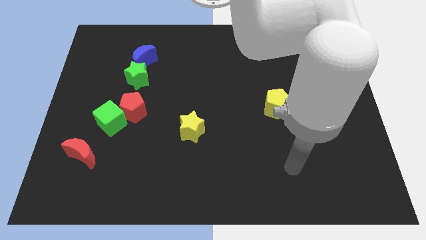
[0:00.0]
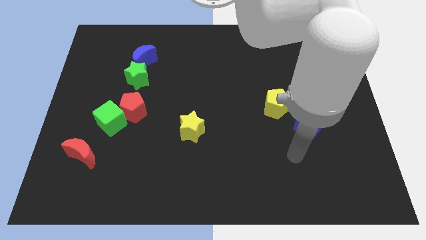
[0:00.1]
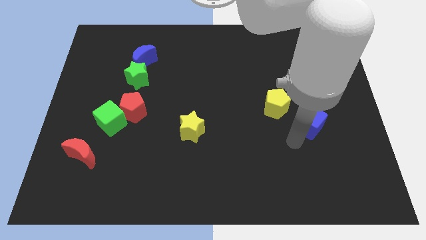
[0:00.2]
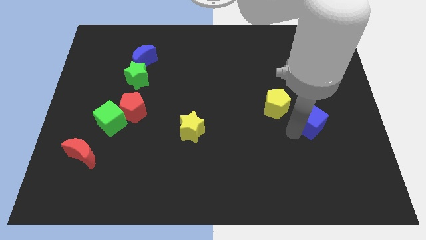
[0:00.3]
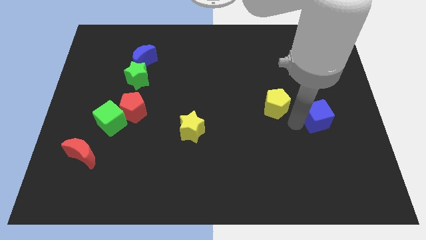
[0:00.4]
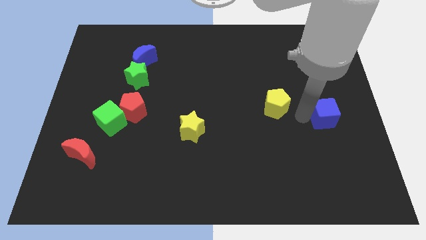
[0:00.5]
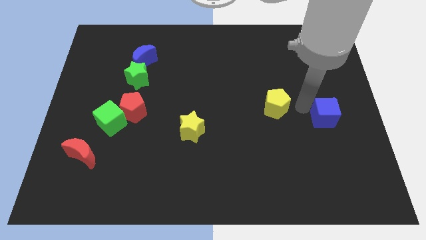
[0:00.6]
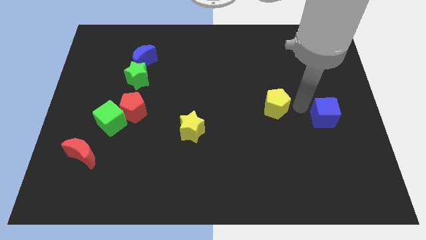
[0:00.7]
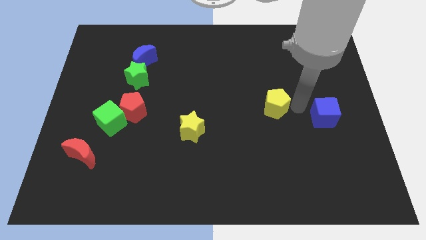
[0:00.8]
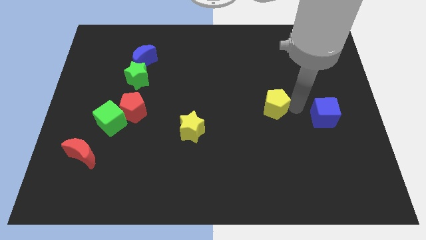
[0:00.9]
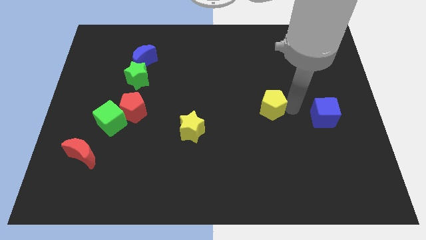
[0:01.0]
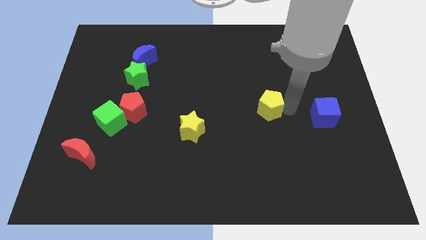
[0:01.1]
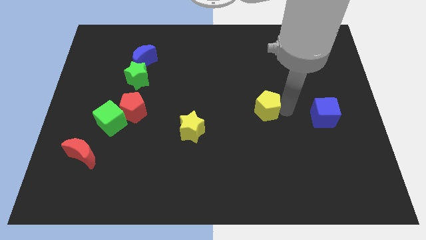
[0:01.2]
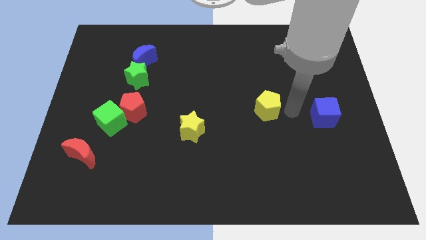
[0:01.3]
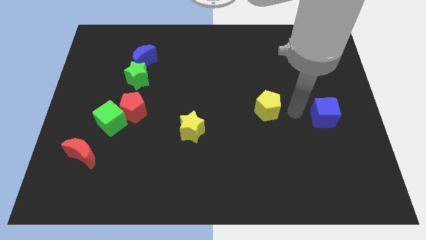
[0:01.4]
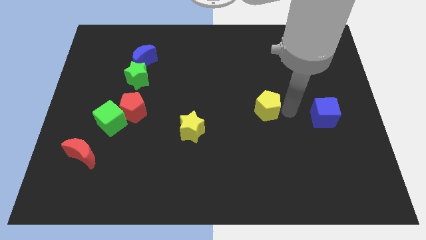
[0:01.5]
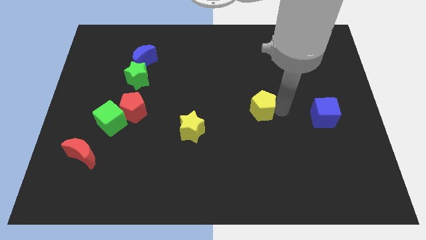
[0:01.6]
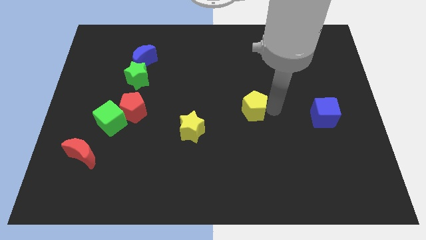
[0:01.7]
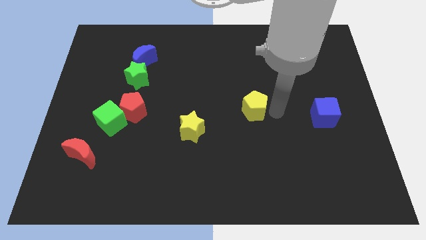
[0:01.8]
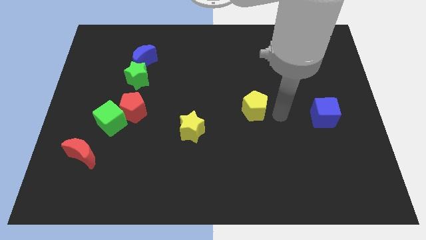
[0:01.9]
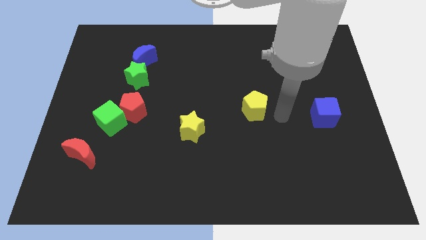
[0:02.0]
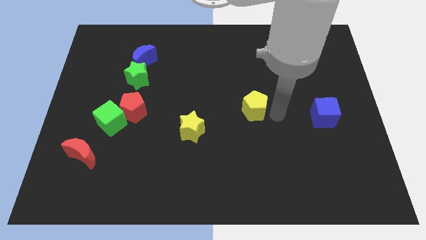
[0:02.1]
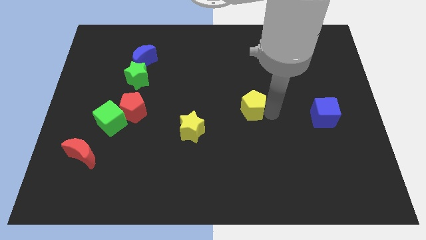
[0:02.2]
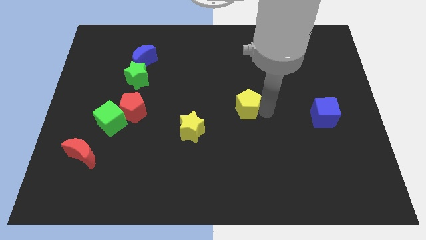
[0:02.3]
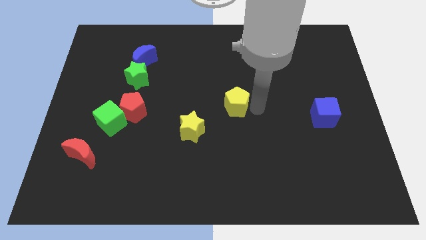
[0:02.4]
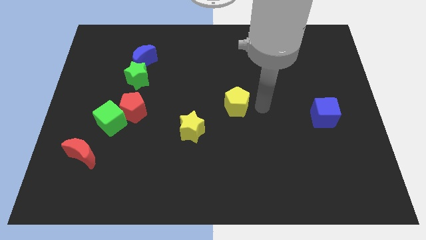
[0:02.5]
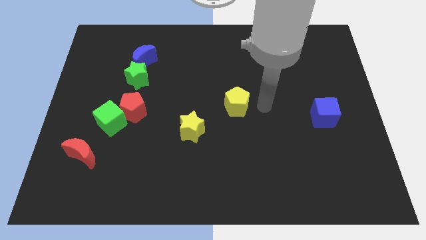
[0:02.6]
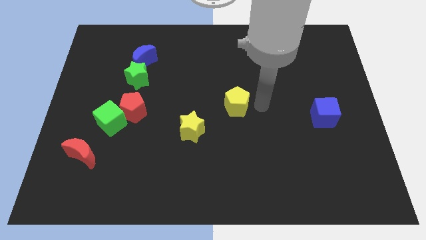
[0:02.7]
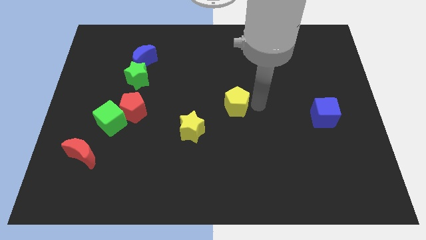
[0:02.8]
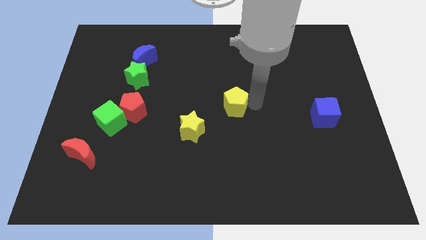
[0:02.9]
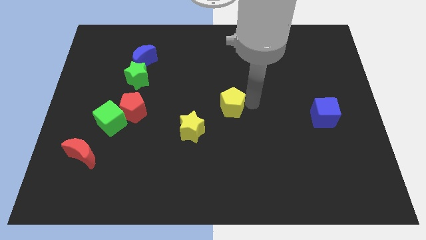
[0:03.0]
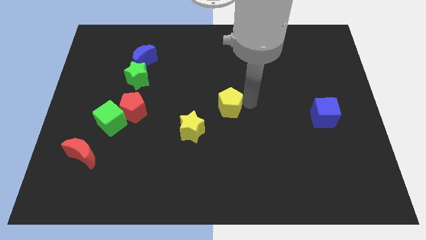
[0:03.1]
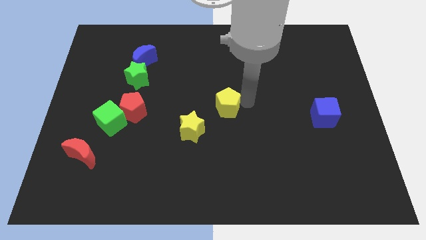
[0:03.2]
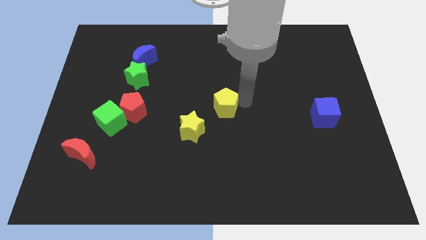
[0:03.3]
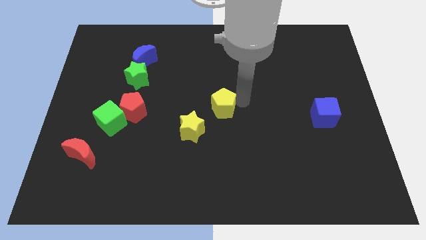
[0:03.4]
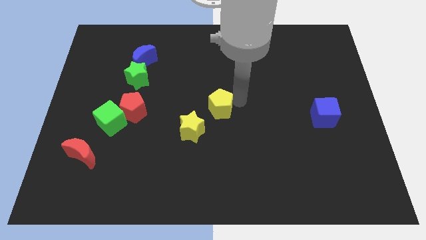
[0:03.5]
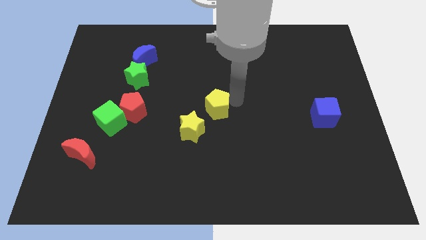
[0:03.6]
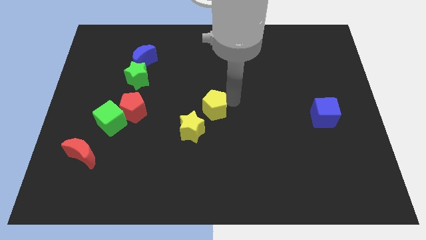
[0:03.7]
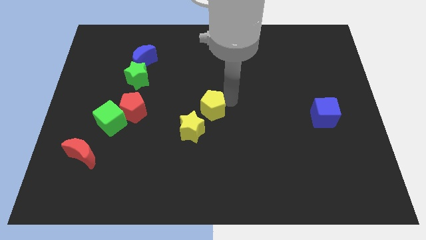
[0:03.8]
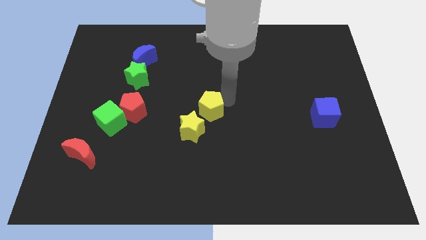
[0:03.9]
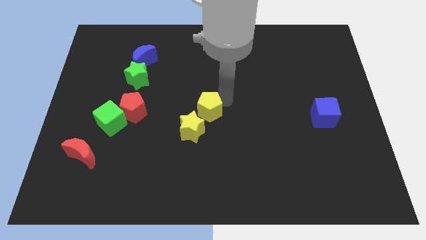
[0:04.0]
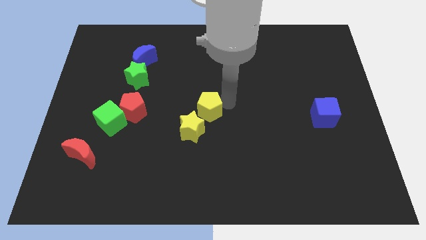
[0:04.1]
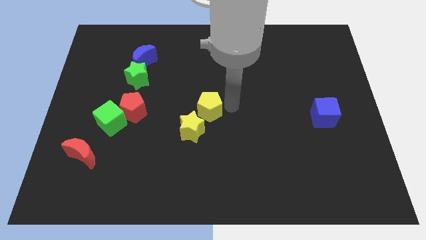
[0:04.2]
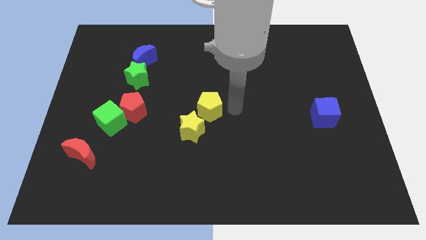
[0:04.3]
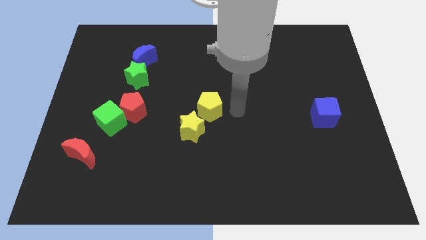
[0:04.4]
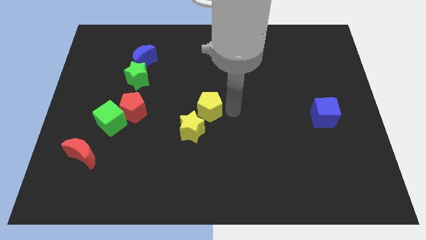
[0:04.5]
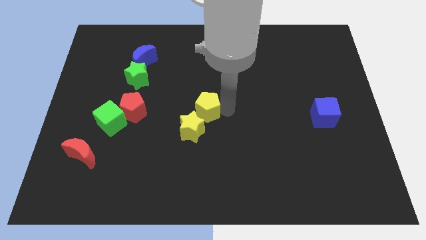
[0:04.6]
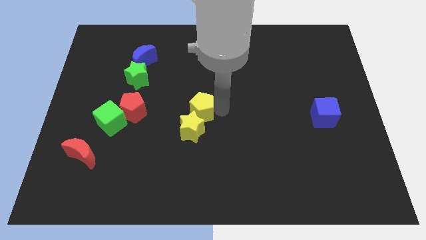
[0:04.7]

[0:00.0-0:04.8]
put the yellow pentagon to the right of the red pentagon

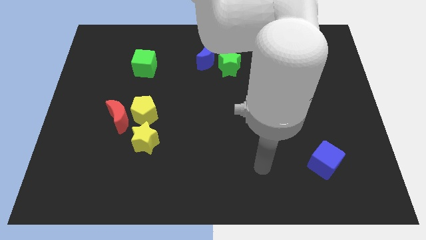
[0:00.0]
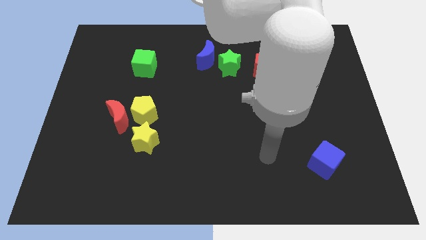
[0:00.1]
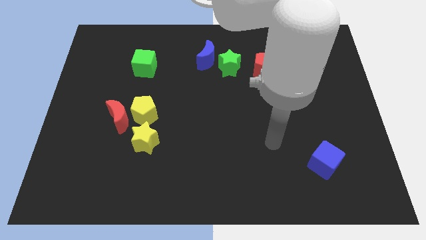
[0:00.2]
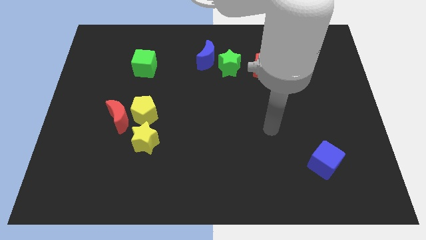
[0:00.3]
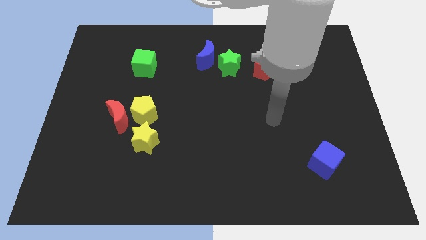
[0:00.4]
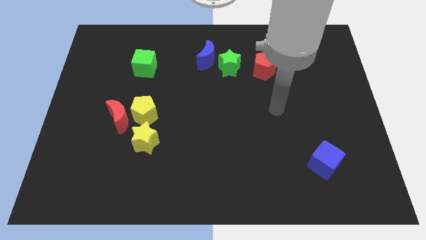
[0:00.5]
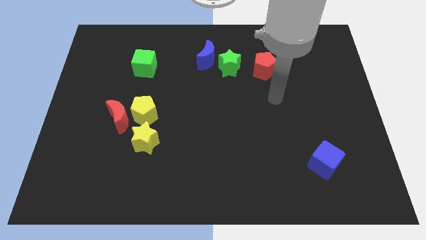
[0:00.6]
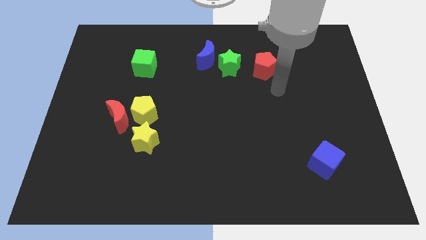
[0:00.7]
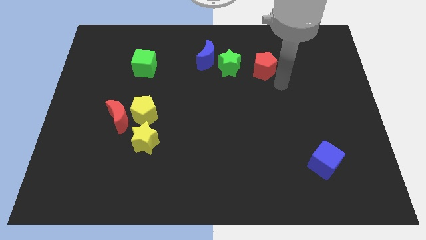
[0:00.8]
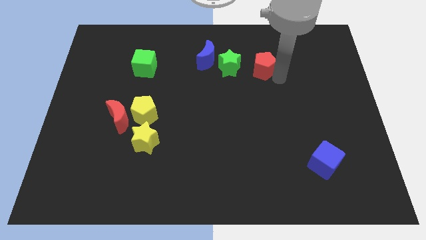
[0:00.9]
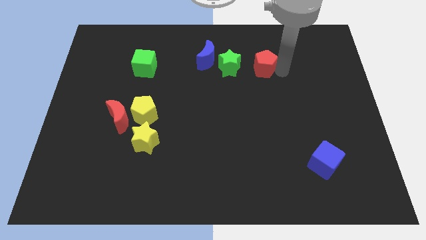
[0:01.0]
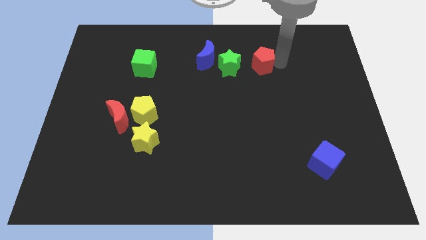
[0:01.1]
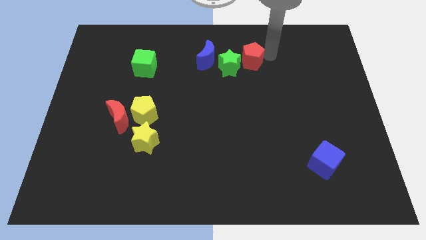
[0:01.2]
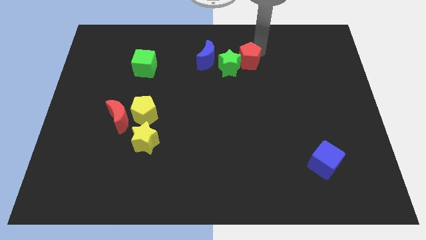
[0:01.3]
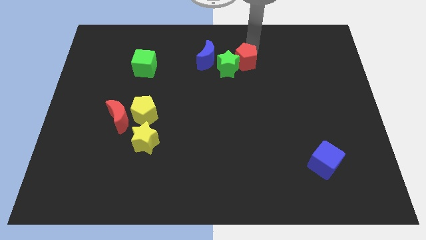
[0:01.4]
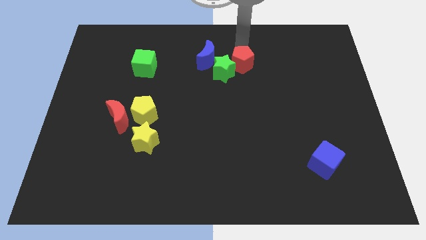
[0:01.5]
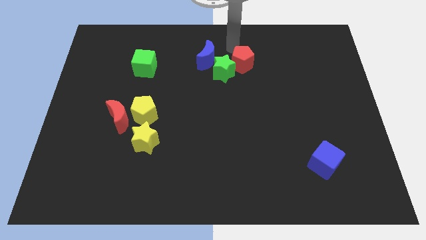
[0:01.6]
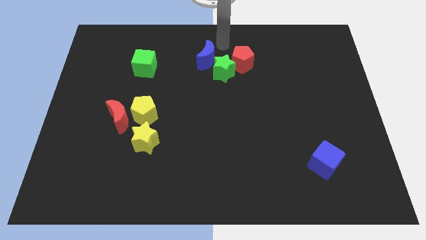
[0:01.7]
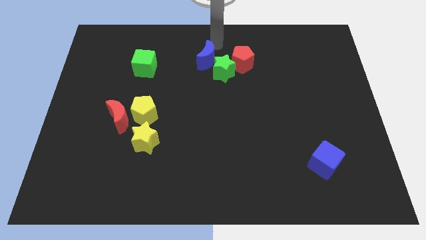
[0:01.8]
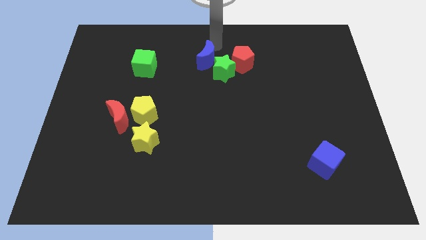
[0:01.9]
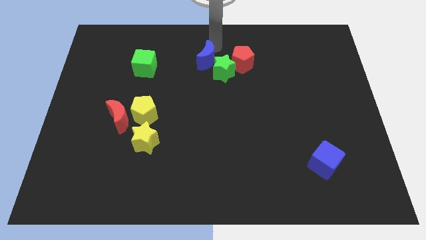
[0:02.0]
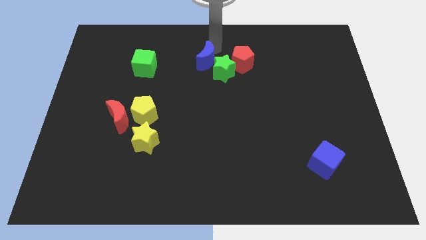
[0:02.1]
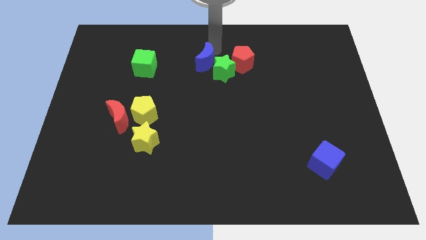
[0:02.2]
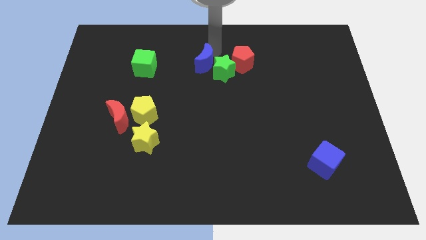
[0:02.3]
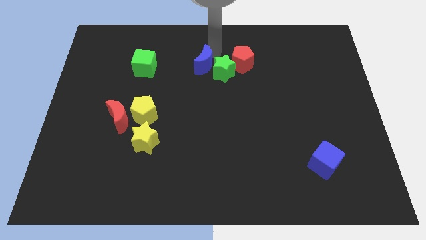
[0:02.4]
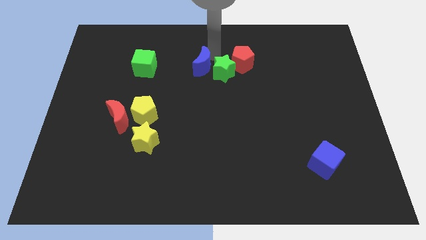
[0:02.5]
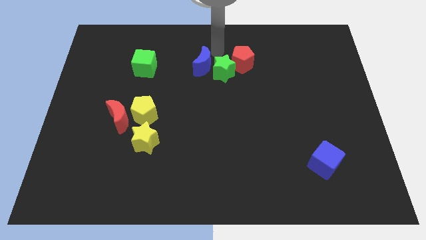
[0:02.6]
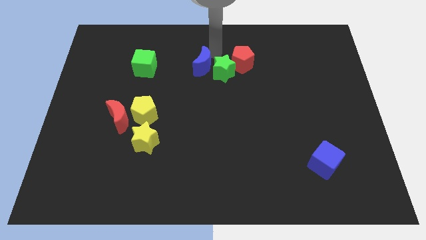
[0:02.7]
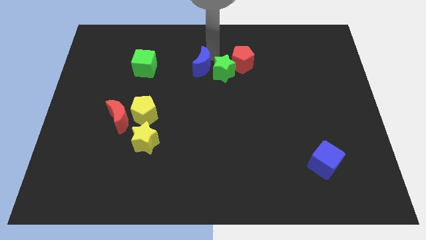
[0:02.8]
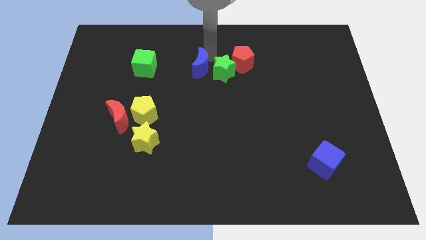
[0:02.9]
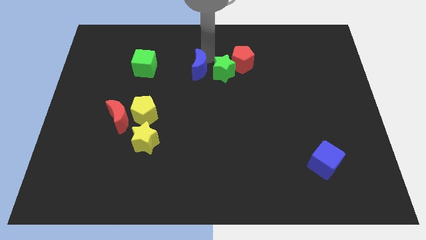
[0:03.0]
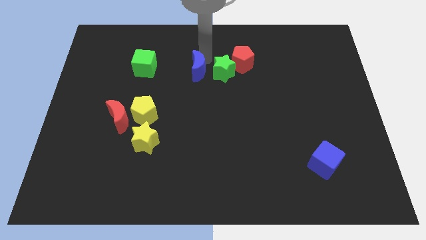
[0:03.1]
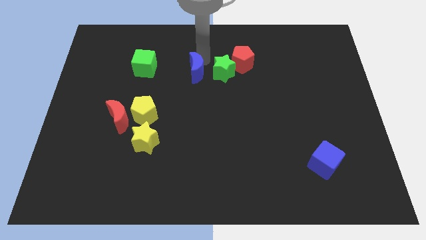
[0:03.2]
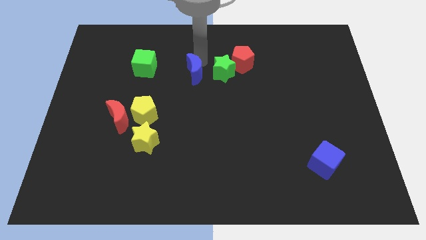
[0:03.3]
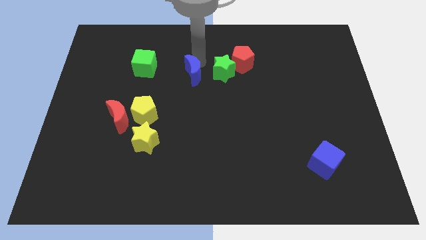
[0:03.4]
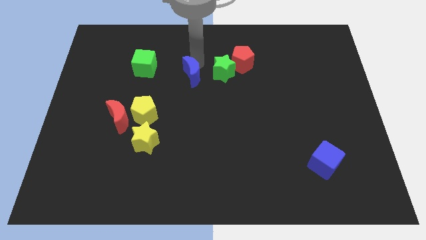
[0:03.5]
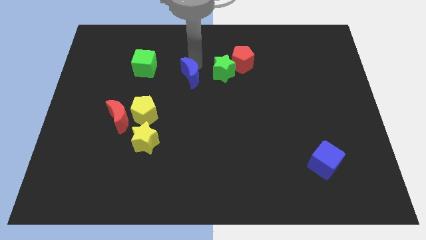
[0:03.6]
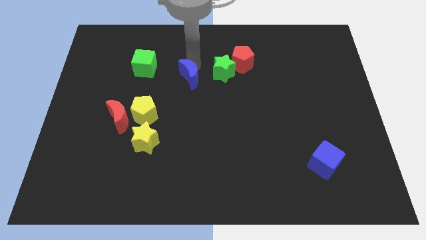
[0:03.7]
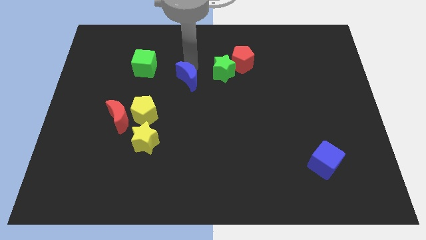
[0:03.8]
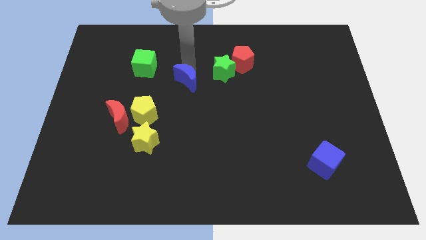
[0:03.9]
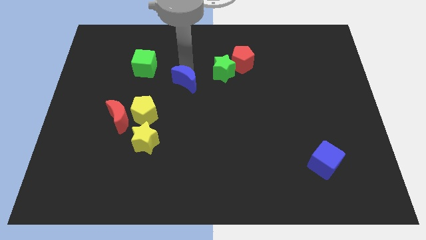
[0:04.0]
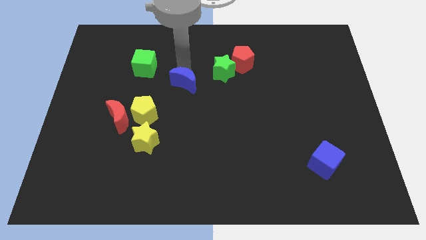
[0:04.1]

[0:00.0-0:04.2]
slide the blue moon to the top right side of the yellow pentagon
